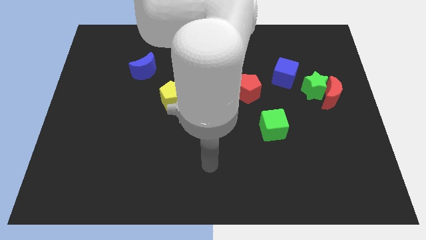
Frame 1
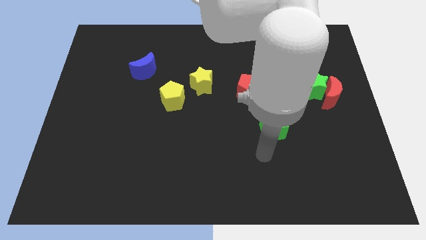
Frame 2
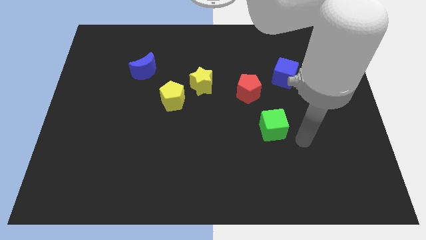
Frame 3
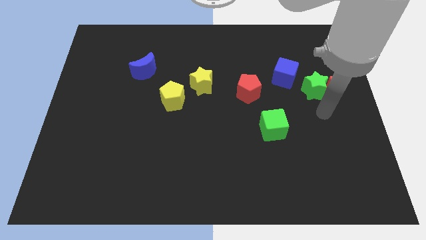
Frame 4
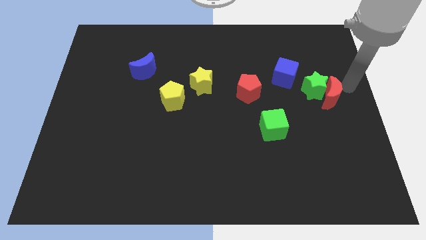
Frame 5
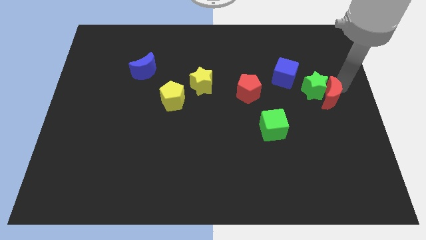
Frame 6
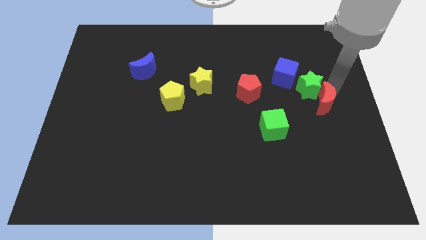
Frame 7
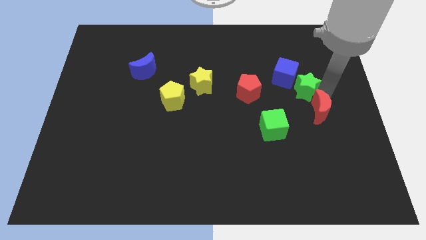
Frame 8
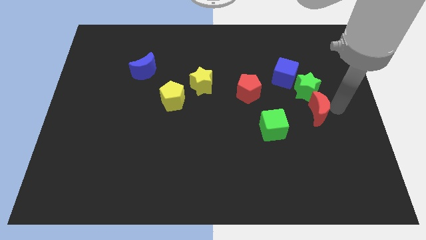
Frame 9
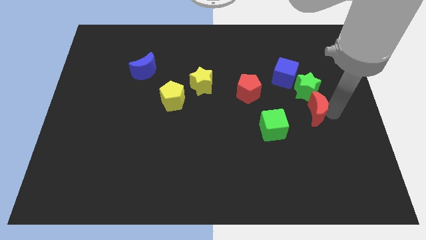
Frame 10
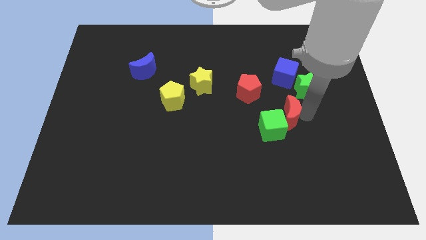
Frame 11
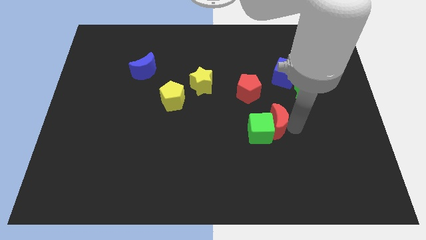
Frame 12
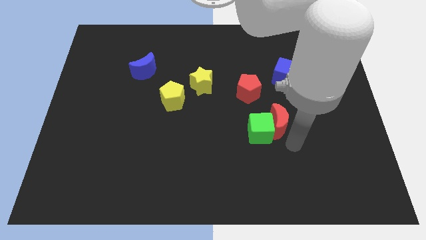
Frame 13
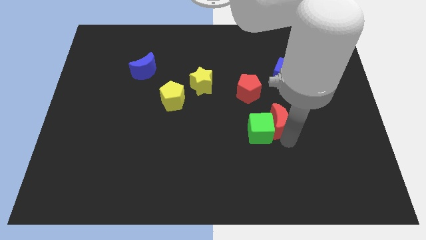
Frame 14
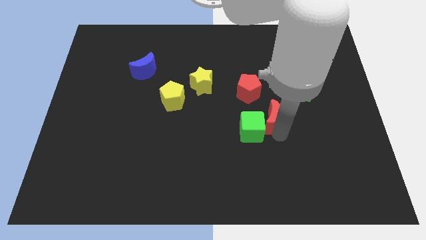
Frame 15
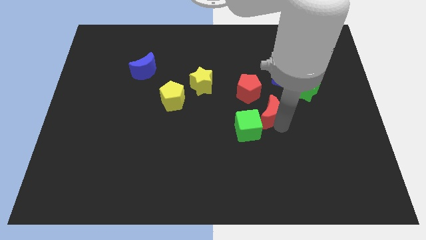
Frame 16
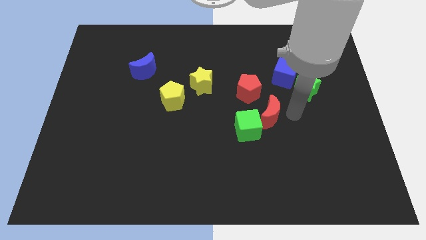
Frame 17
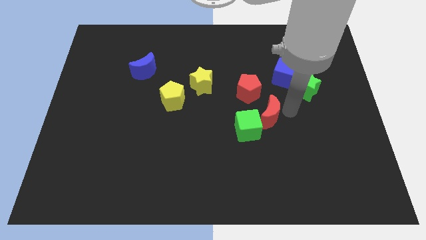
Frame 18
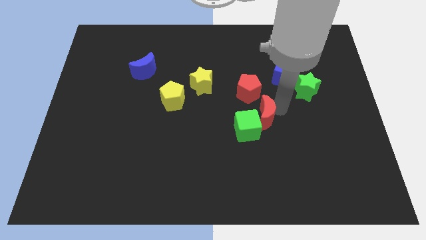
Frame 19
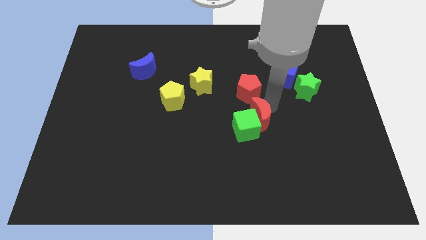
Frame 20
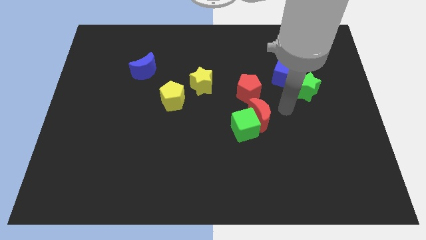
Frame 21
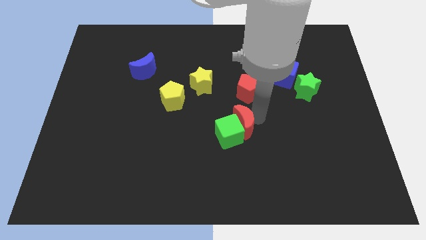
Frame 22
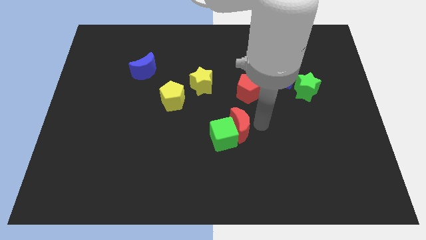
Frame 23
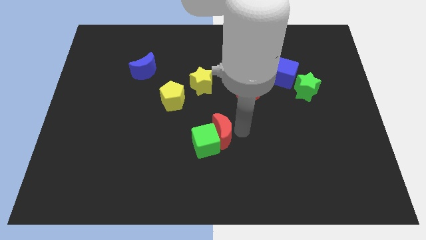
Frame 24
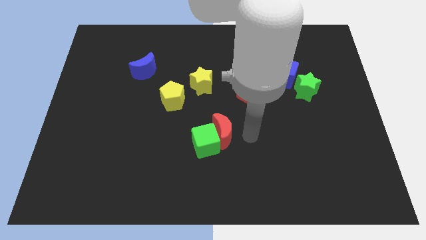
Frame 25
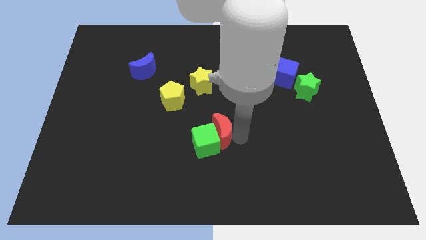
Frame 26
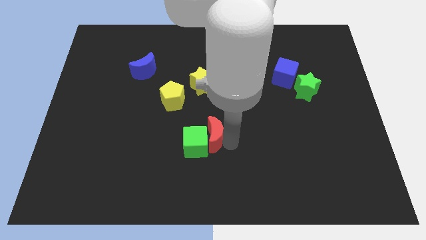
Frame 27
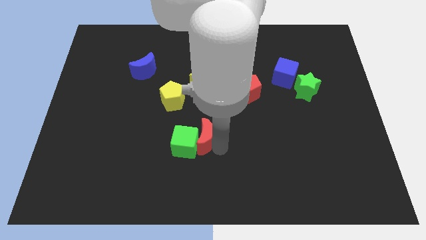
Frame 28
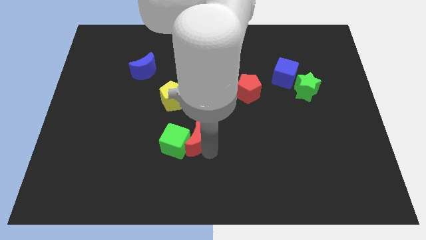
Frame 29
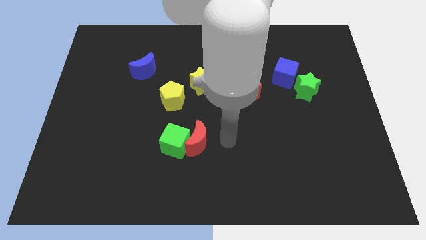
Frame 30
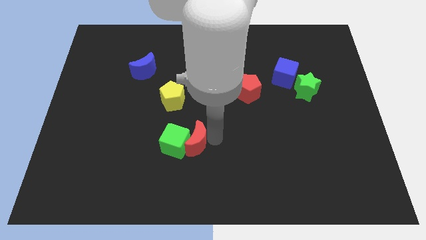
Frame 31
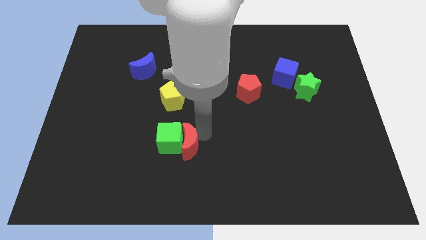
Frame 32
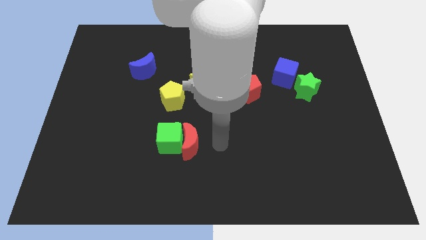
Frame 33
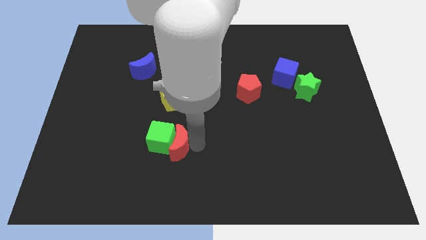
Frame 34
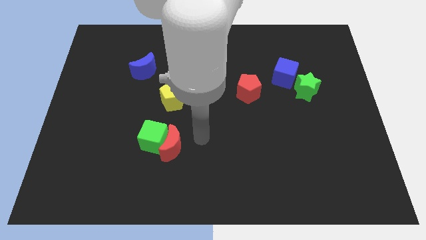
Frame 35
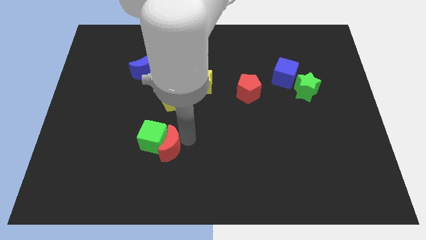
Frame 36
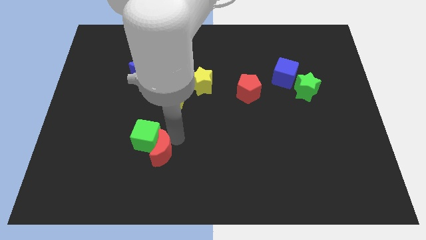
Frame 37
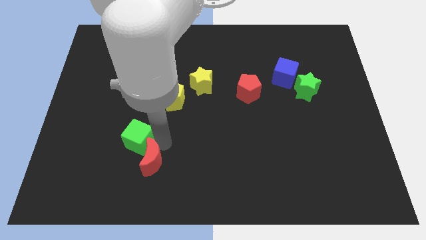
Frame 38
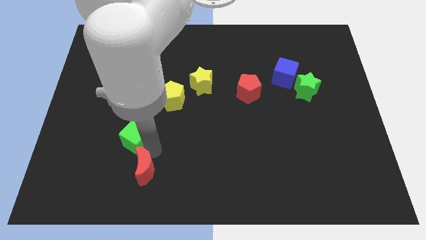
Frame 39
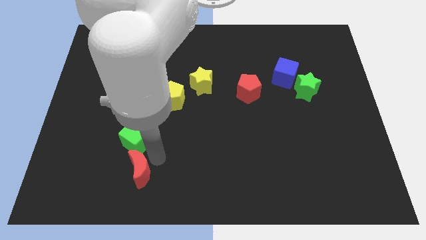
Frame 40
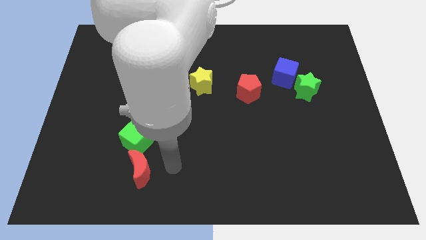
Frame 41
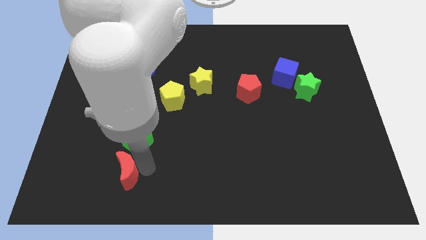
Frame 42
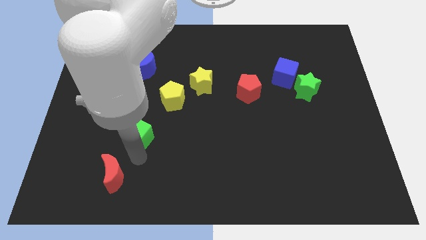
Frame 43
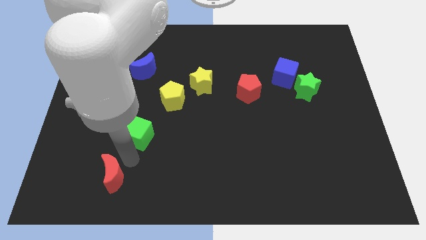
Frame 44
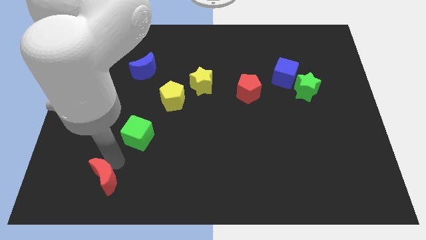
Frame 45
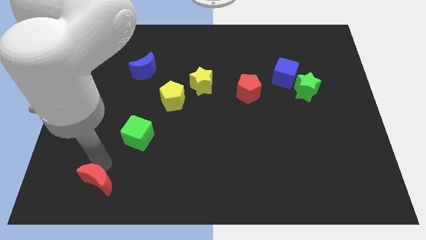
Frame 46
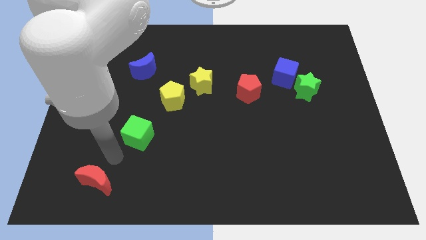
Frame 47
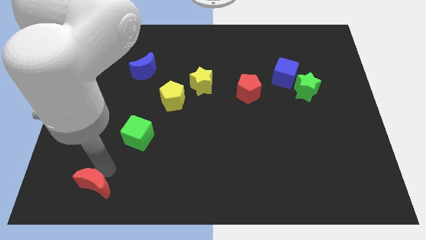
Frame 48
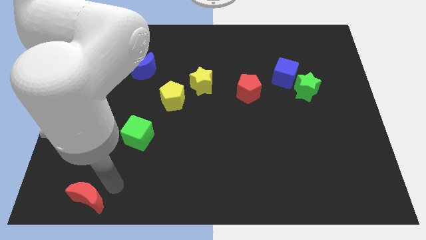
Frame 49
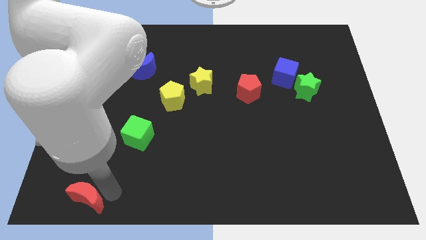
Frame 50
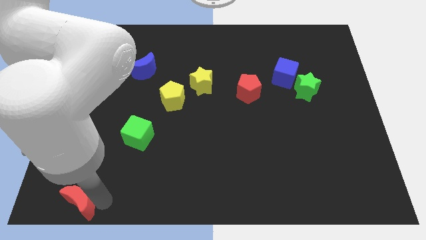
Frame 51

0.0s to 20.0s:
slide the red moon to the lower left corner

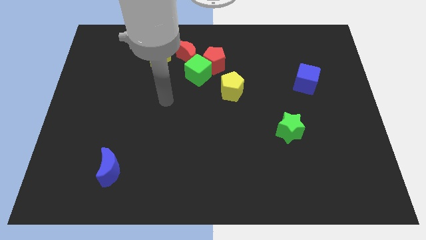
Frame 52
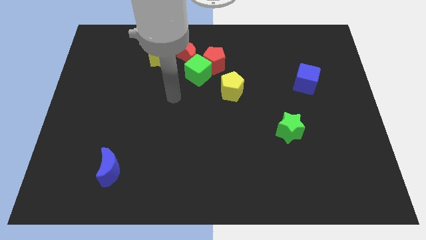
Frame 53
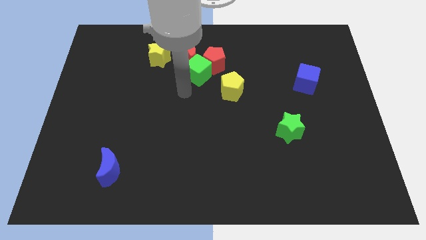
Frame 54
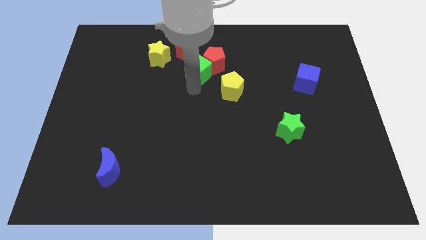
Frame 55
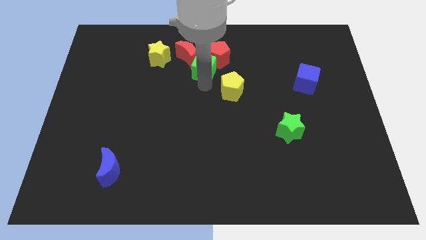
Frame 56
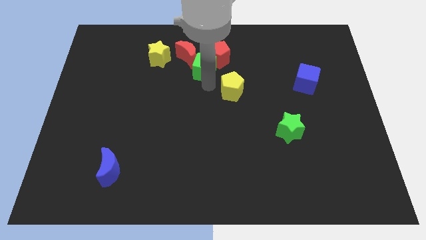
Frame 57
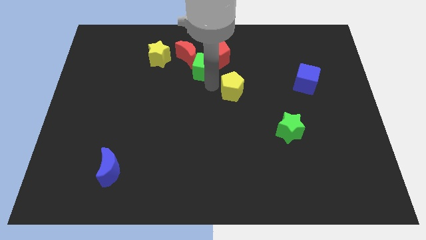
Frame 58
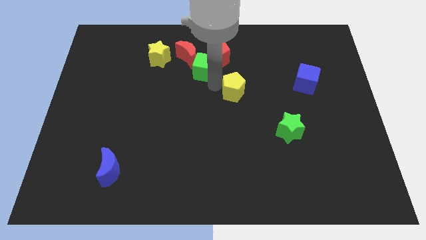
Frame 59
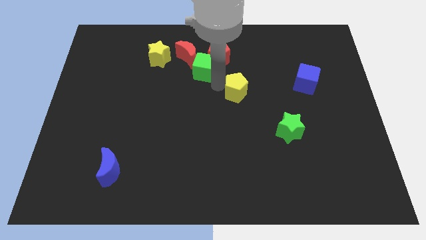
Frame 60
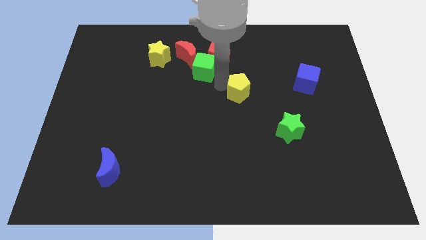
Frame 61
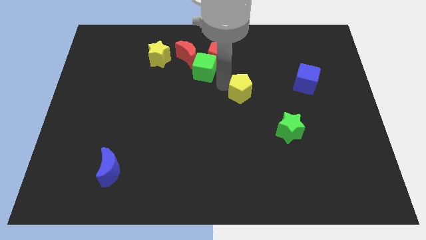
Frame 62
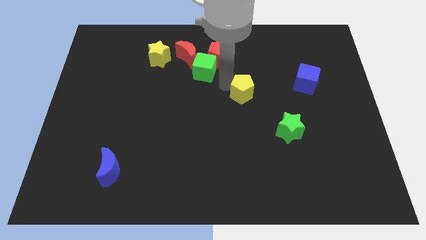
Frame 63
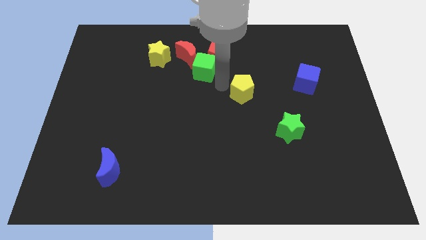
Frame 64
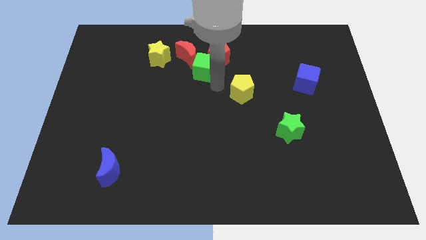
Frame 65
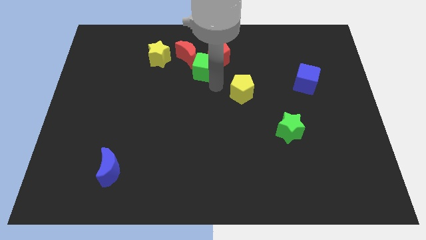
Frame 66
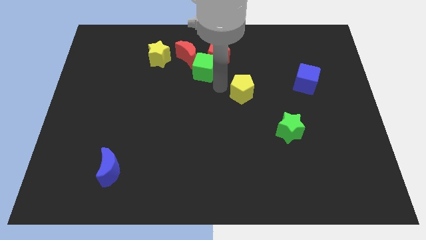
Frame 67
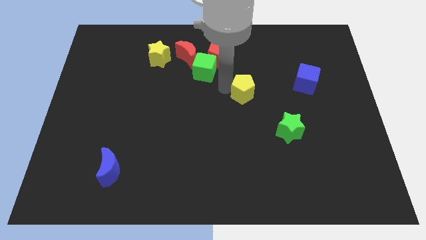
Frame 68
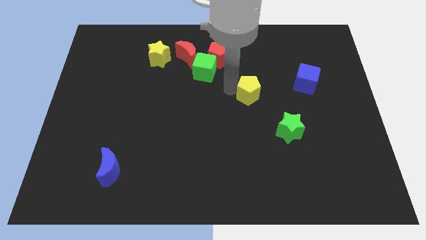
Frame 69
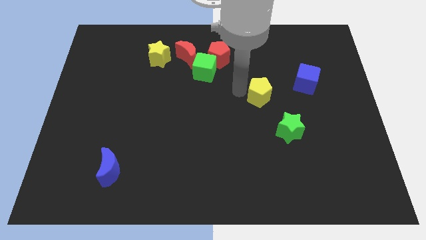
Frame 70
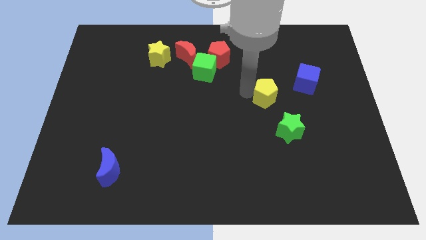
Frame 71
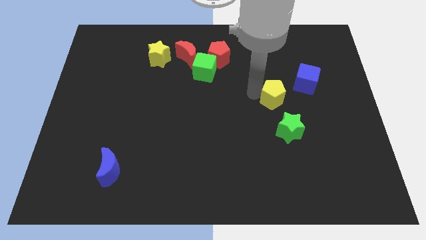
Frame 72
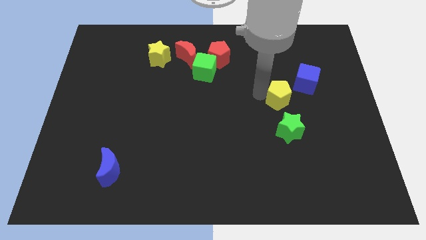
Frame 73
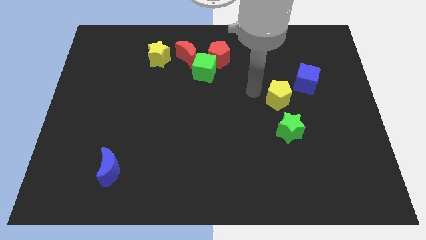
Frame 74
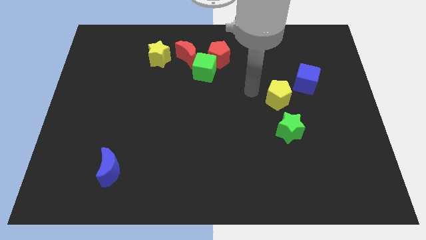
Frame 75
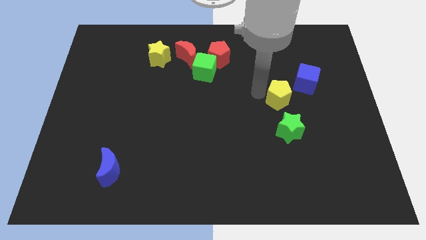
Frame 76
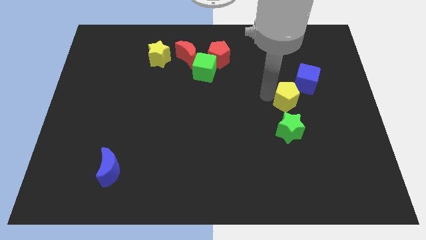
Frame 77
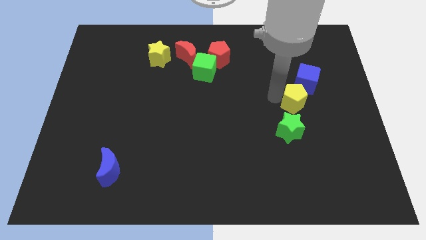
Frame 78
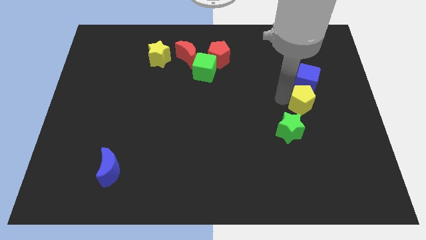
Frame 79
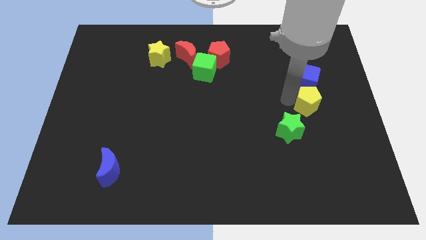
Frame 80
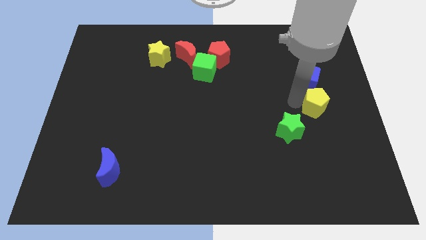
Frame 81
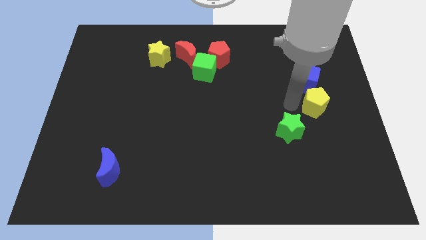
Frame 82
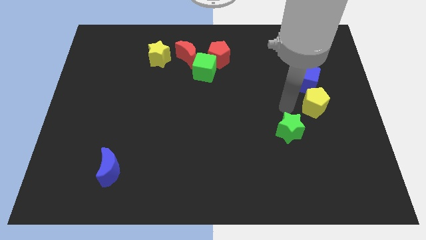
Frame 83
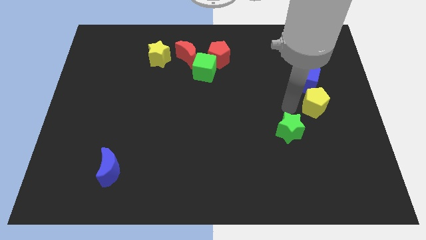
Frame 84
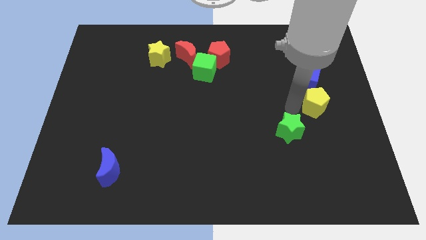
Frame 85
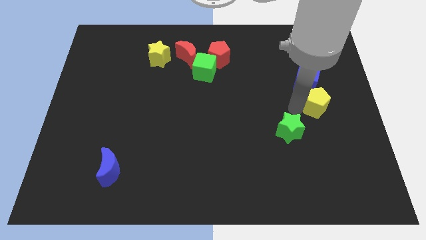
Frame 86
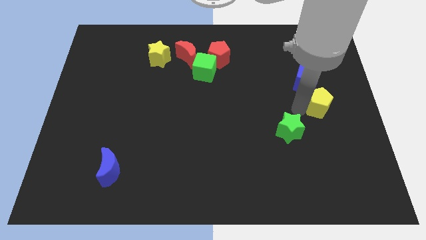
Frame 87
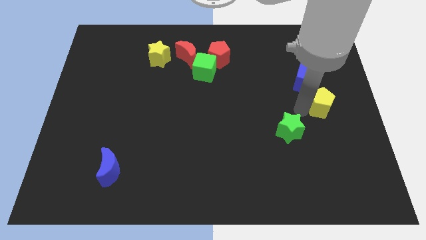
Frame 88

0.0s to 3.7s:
move the yellow pentagon to the right side of the board
